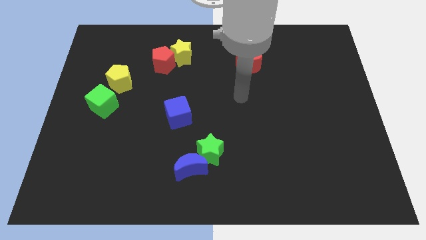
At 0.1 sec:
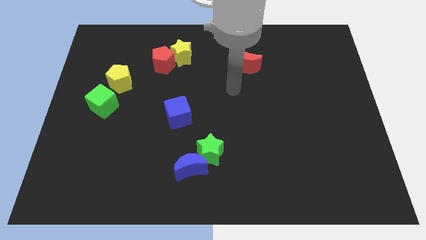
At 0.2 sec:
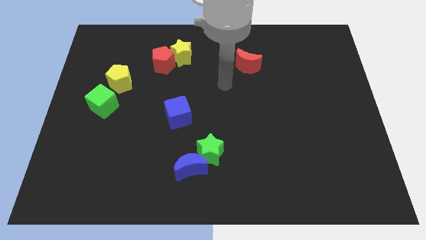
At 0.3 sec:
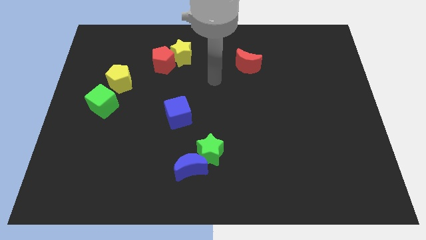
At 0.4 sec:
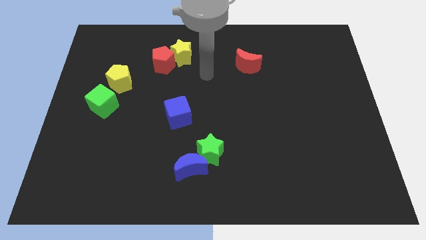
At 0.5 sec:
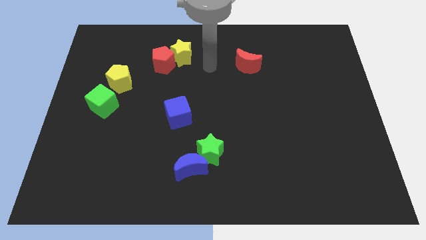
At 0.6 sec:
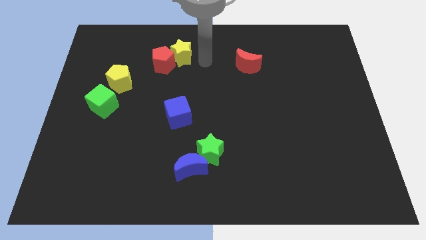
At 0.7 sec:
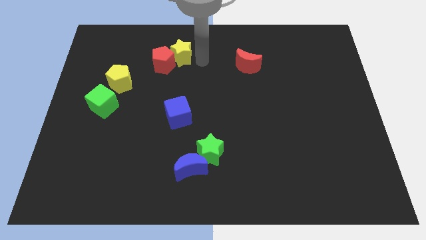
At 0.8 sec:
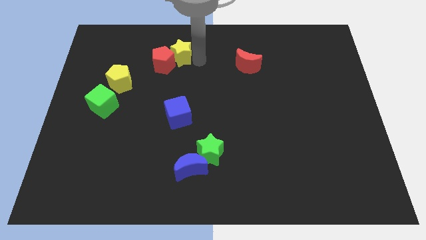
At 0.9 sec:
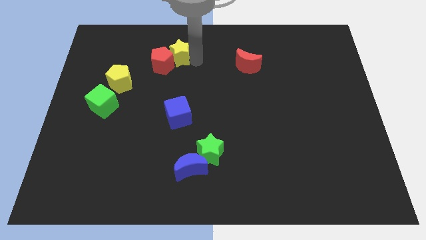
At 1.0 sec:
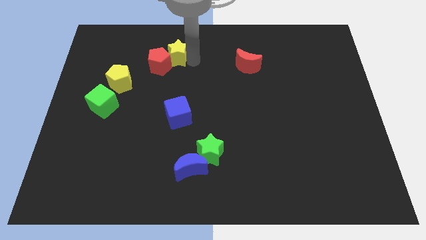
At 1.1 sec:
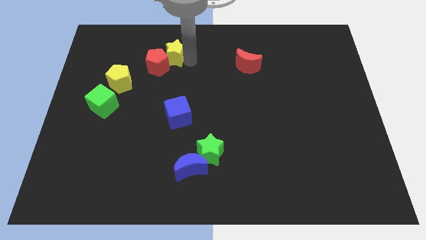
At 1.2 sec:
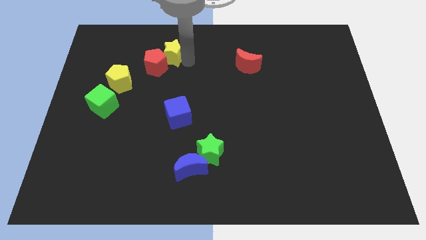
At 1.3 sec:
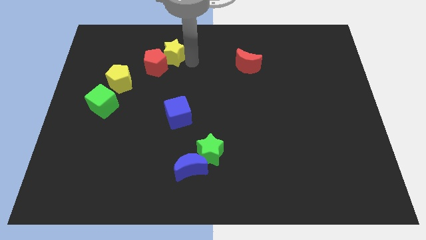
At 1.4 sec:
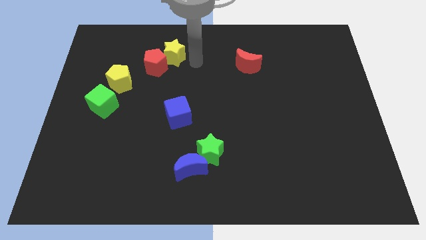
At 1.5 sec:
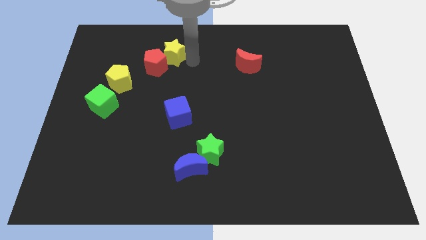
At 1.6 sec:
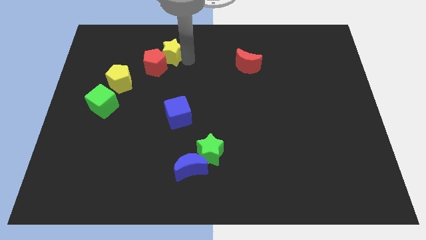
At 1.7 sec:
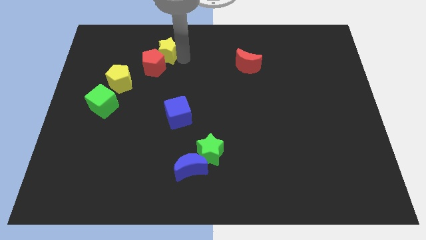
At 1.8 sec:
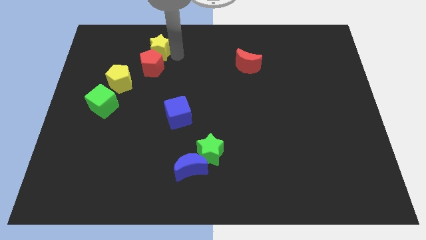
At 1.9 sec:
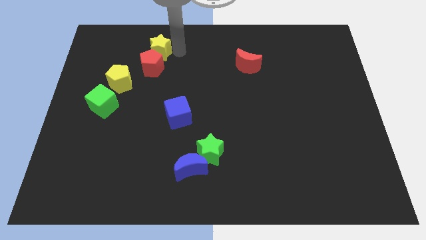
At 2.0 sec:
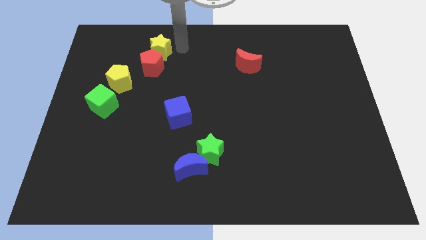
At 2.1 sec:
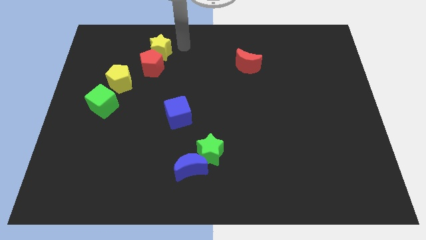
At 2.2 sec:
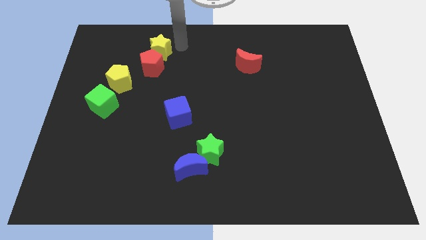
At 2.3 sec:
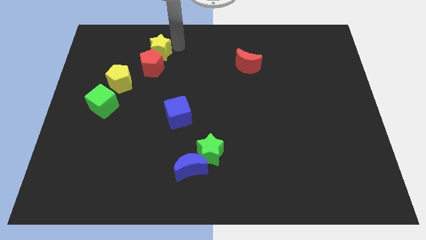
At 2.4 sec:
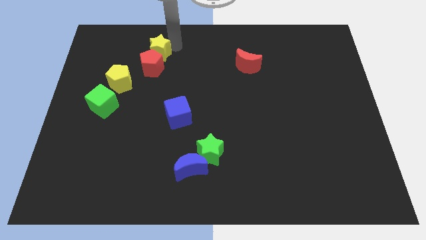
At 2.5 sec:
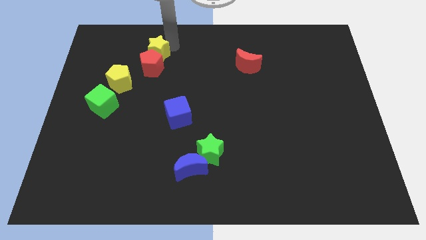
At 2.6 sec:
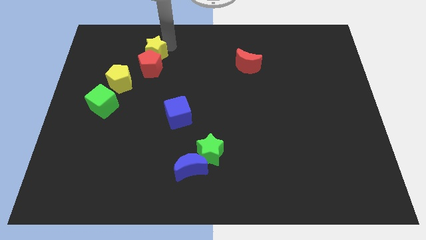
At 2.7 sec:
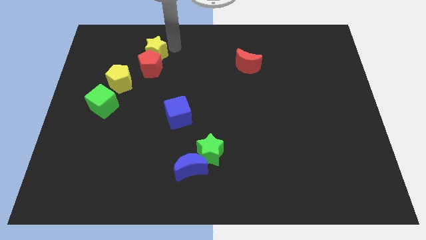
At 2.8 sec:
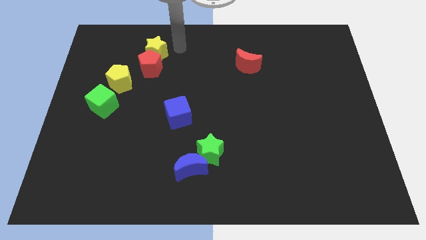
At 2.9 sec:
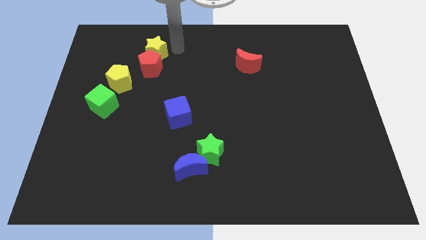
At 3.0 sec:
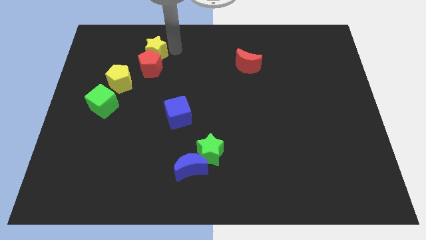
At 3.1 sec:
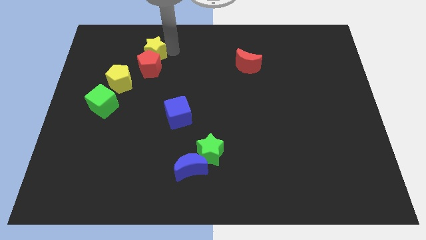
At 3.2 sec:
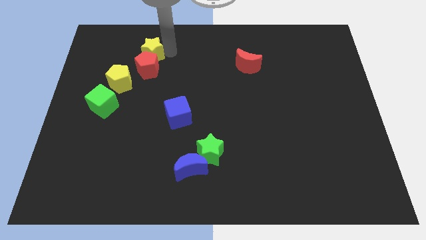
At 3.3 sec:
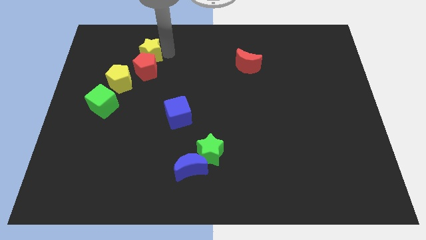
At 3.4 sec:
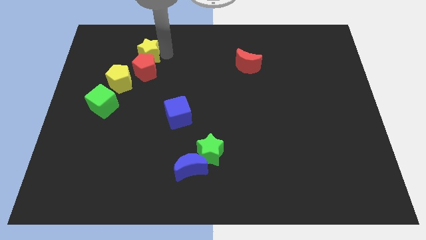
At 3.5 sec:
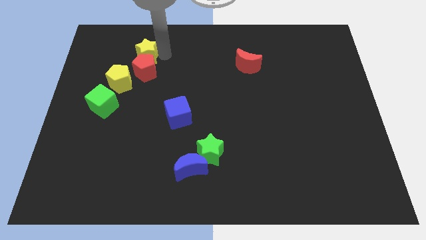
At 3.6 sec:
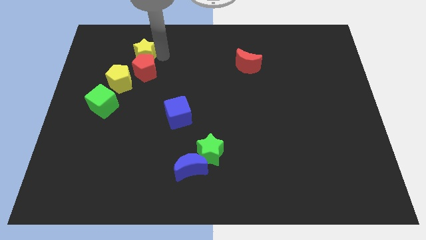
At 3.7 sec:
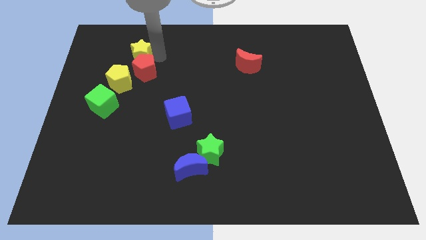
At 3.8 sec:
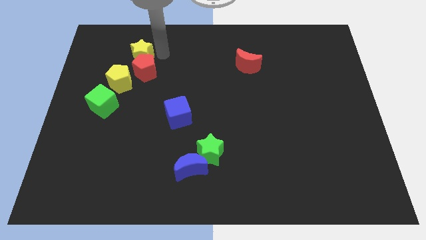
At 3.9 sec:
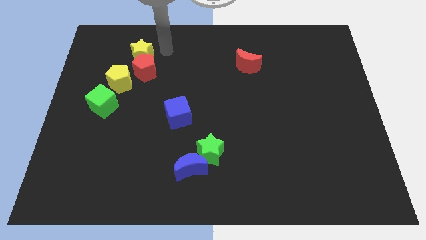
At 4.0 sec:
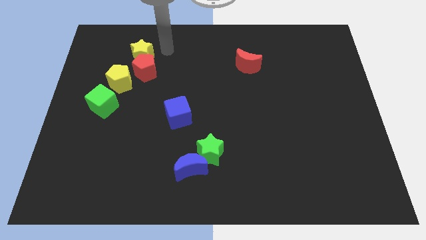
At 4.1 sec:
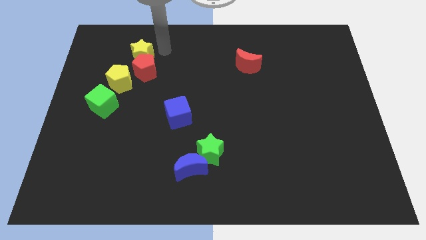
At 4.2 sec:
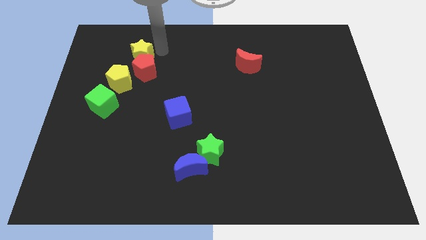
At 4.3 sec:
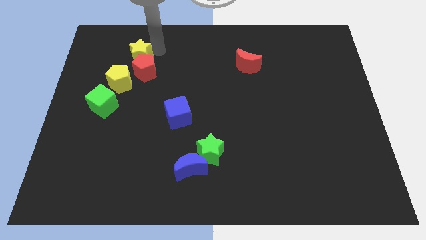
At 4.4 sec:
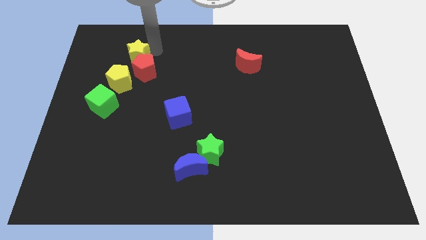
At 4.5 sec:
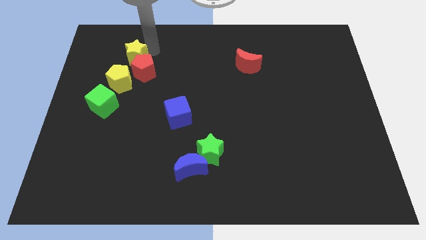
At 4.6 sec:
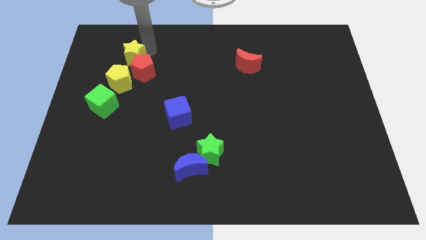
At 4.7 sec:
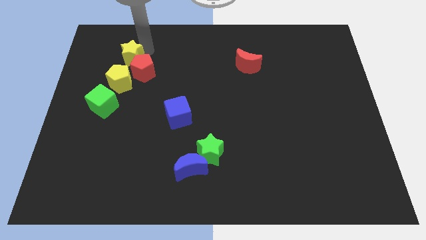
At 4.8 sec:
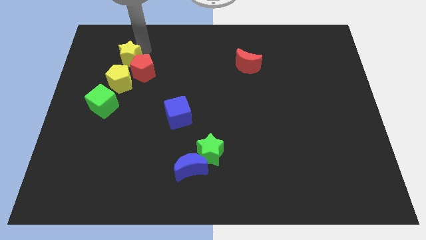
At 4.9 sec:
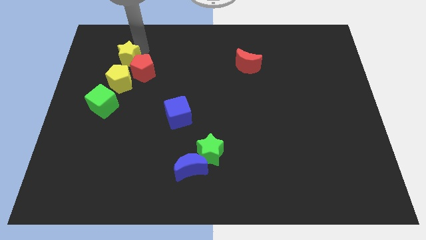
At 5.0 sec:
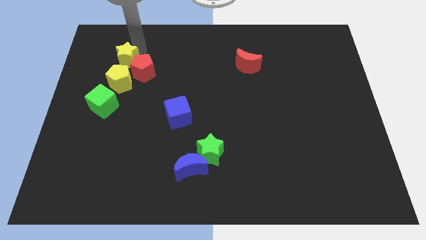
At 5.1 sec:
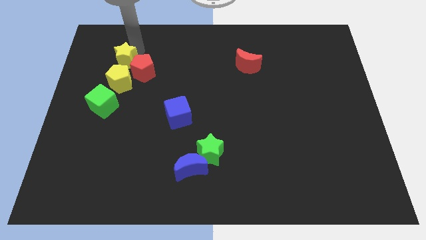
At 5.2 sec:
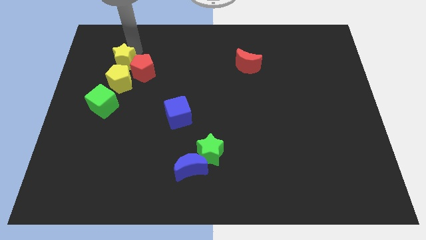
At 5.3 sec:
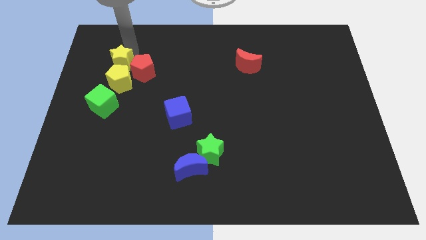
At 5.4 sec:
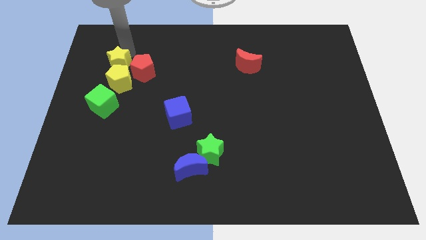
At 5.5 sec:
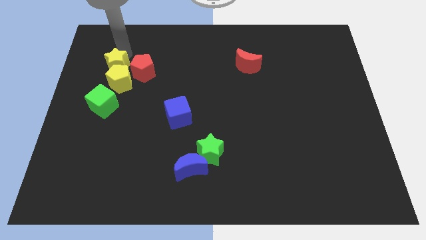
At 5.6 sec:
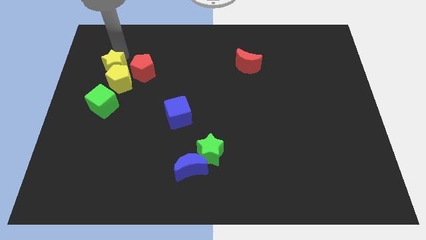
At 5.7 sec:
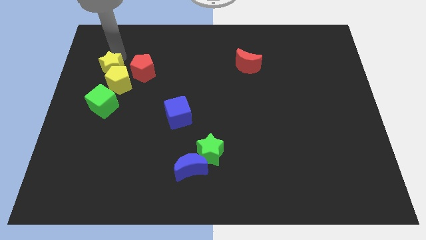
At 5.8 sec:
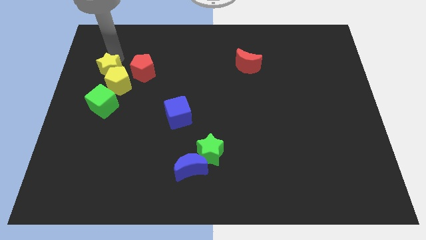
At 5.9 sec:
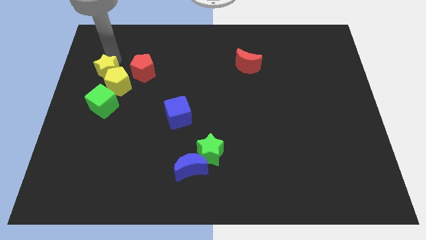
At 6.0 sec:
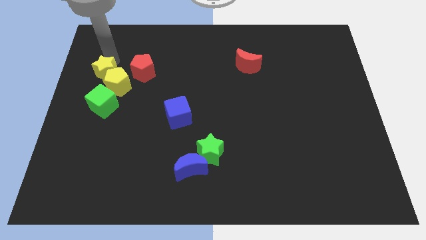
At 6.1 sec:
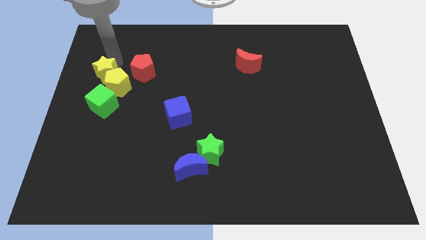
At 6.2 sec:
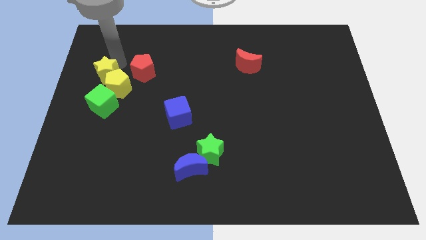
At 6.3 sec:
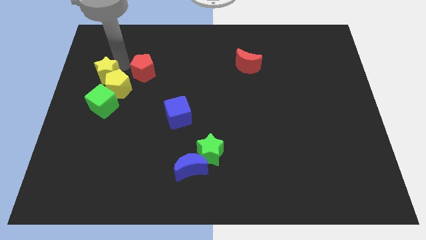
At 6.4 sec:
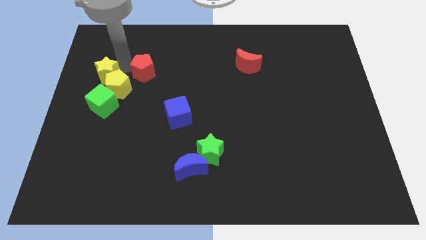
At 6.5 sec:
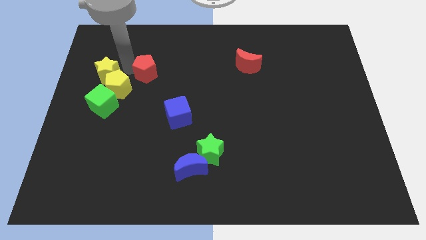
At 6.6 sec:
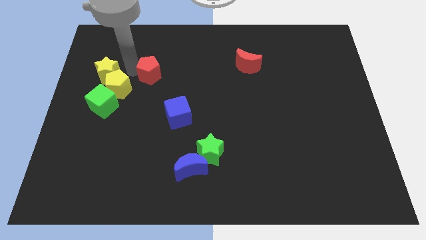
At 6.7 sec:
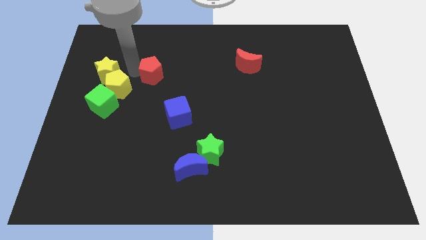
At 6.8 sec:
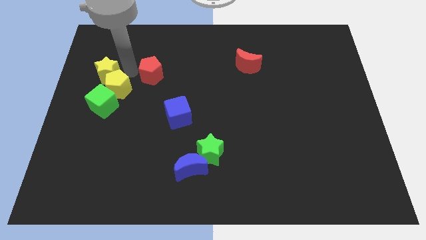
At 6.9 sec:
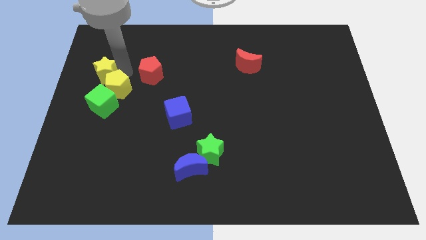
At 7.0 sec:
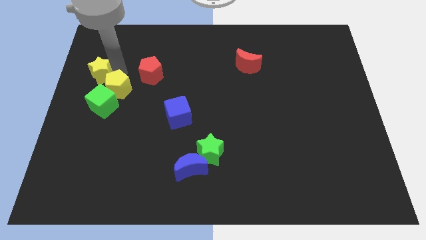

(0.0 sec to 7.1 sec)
push the yellow star to the left side
